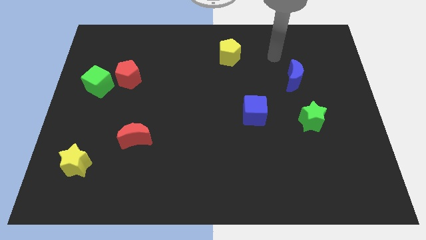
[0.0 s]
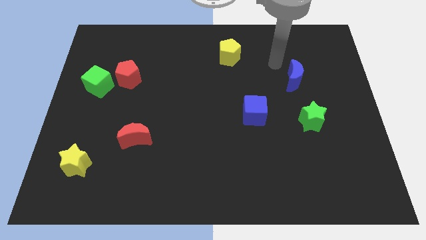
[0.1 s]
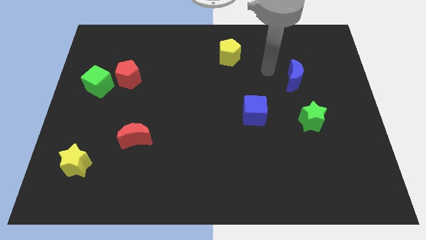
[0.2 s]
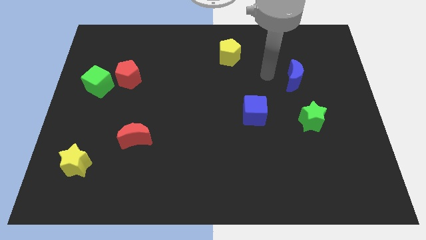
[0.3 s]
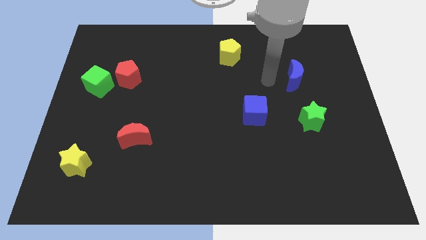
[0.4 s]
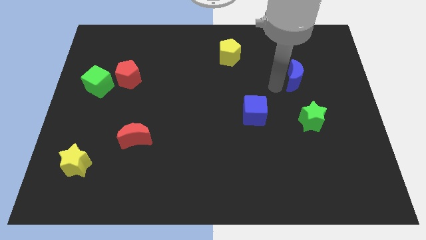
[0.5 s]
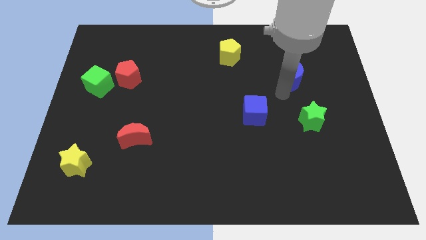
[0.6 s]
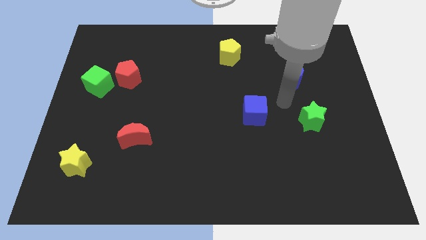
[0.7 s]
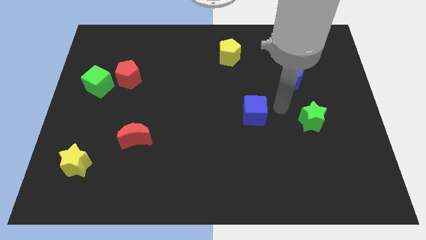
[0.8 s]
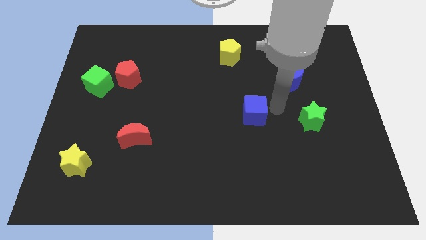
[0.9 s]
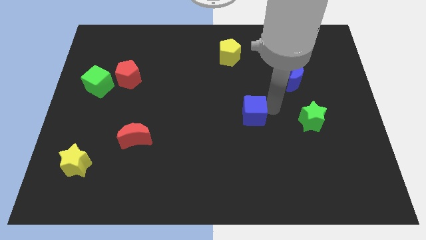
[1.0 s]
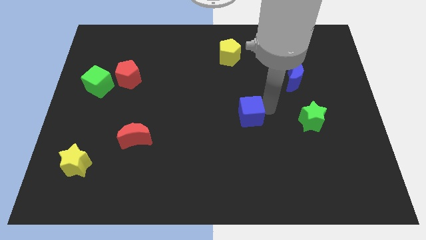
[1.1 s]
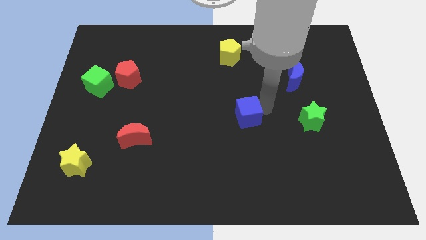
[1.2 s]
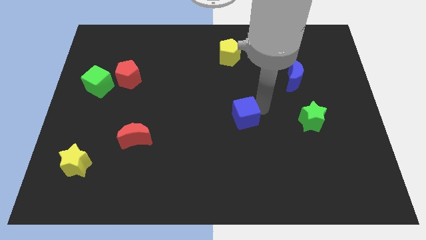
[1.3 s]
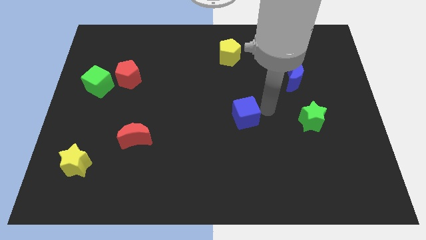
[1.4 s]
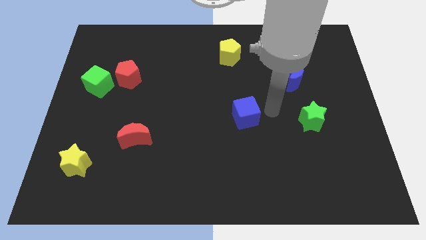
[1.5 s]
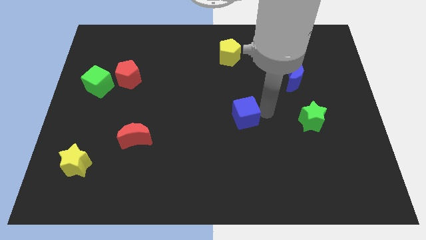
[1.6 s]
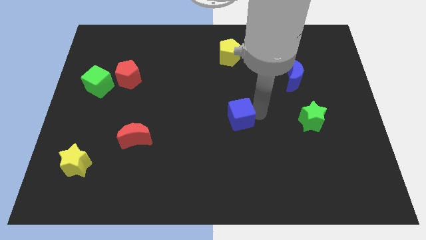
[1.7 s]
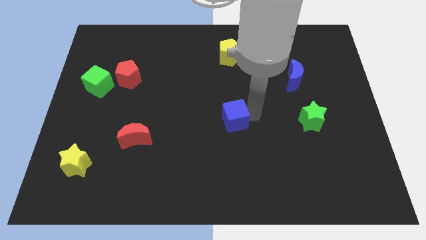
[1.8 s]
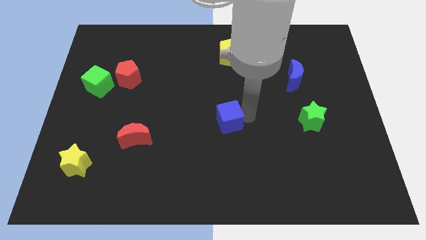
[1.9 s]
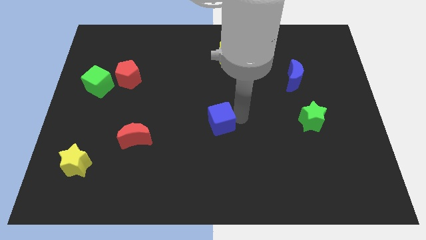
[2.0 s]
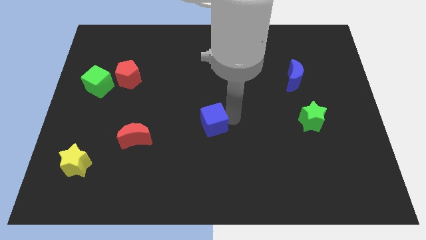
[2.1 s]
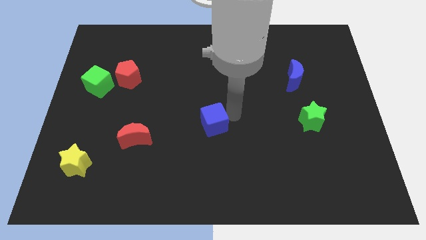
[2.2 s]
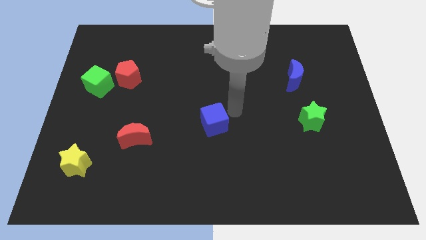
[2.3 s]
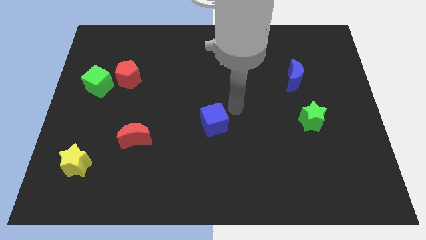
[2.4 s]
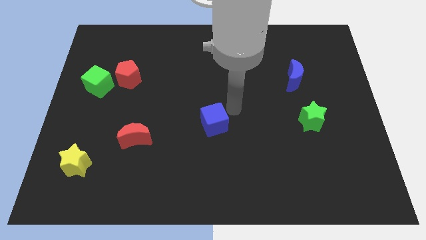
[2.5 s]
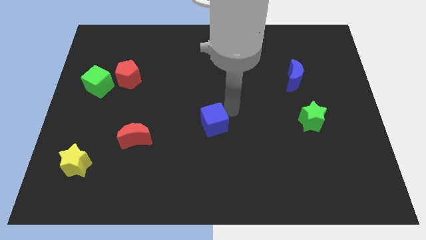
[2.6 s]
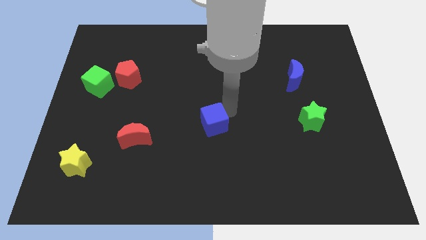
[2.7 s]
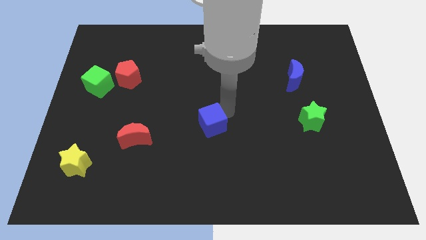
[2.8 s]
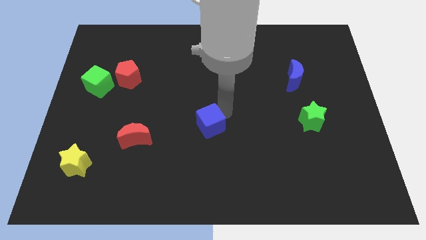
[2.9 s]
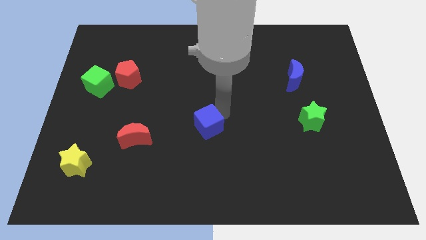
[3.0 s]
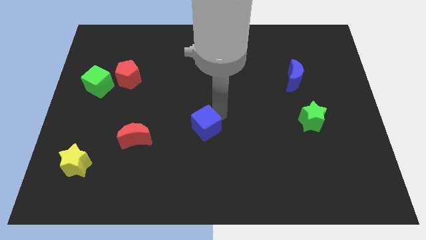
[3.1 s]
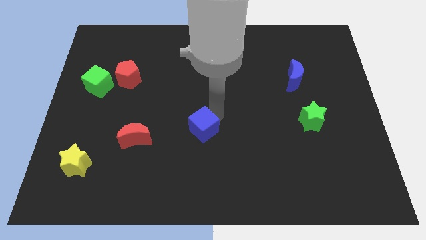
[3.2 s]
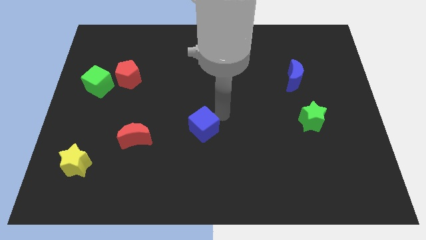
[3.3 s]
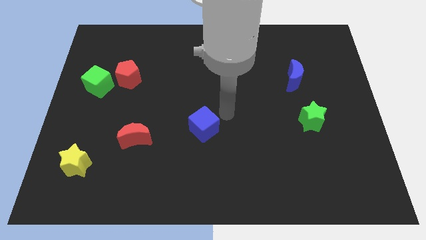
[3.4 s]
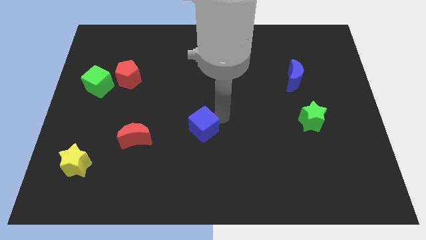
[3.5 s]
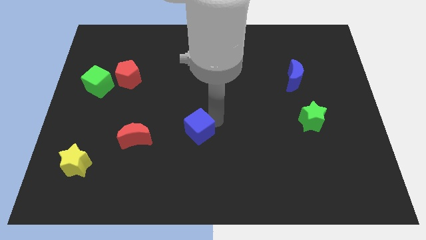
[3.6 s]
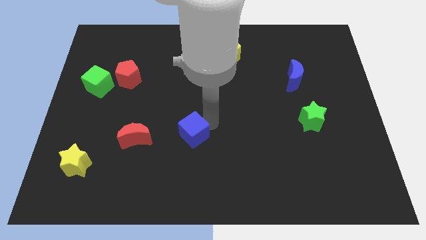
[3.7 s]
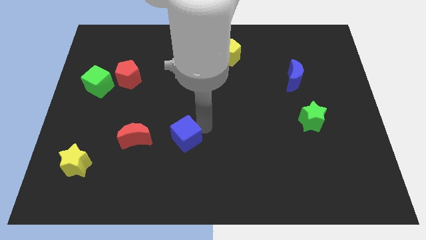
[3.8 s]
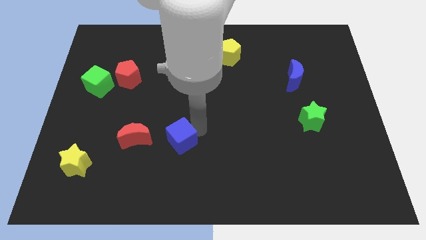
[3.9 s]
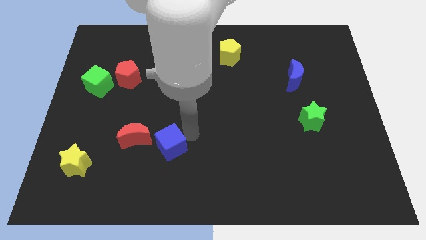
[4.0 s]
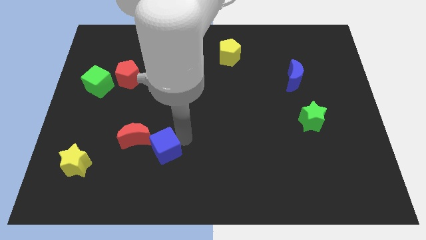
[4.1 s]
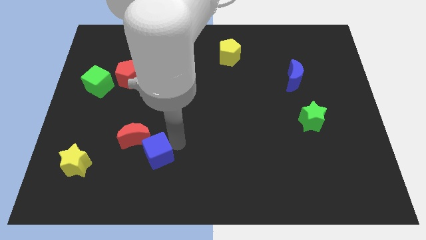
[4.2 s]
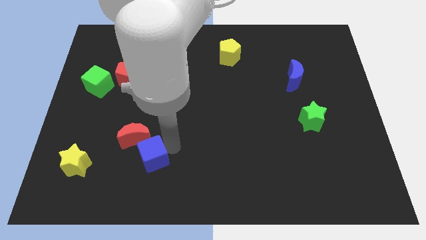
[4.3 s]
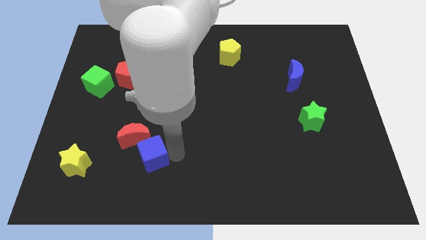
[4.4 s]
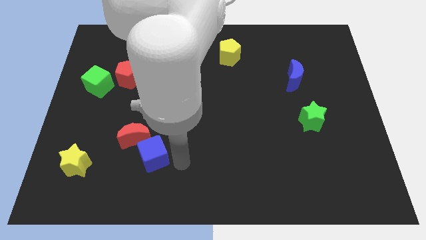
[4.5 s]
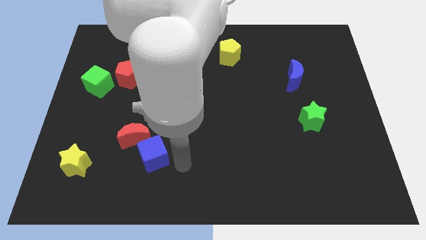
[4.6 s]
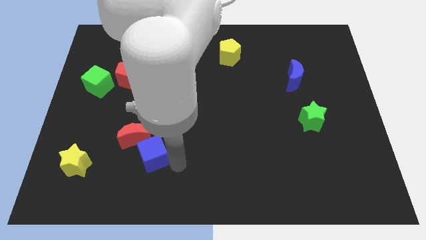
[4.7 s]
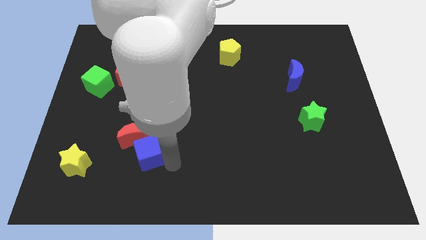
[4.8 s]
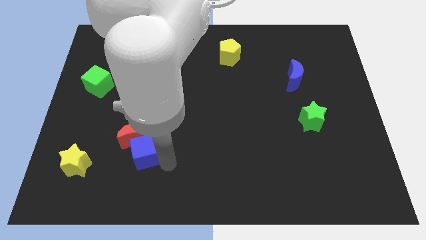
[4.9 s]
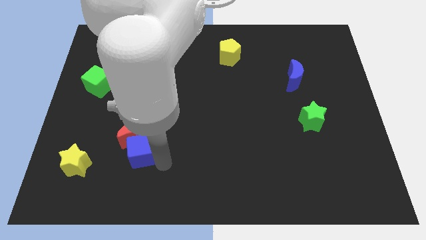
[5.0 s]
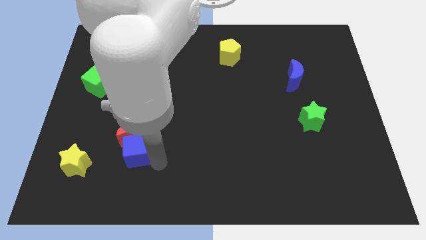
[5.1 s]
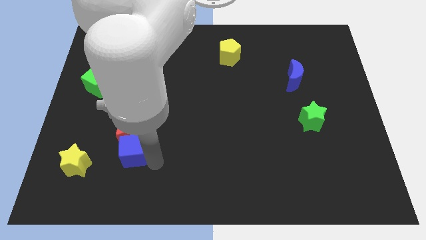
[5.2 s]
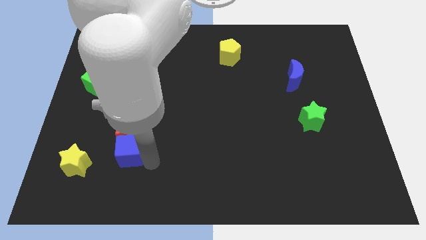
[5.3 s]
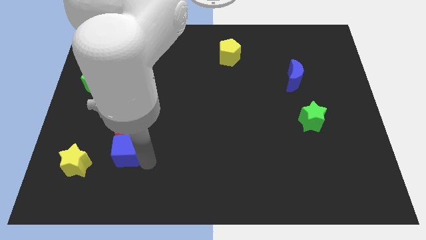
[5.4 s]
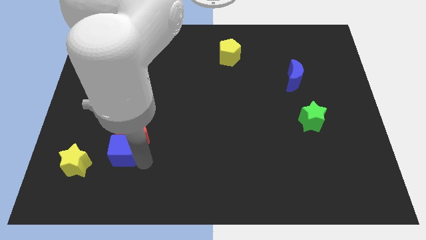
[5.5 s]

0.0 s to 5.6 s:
put the blue cube diagonally up and to the right of the yellow star

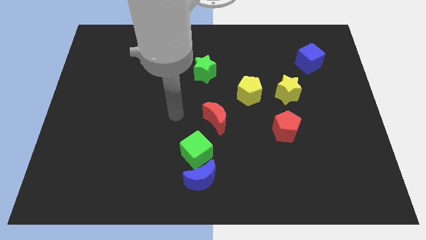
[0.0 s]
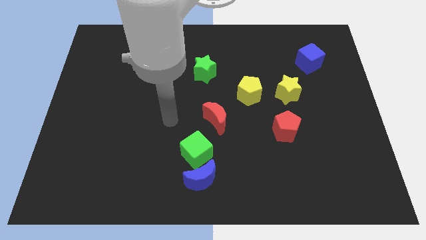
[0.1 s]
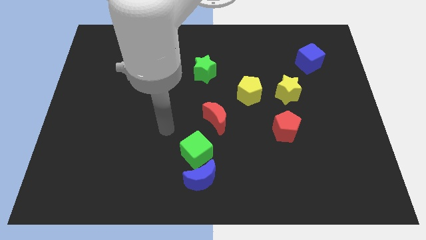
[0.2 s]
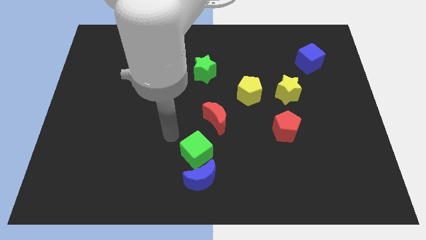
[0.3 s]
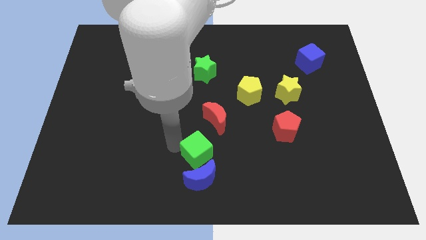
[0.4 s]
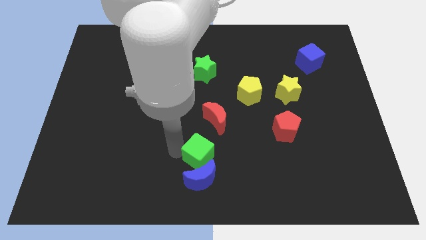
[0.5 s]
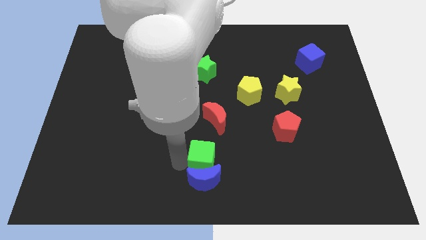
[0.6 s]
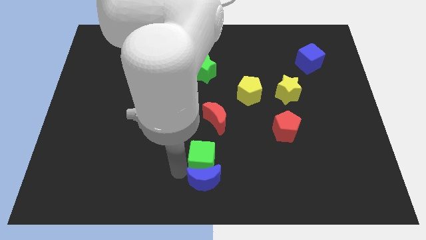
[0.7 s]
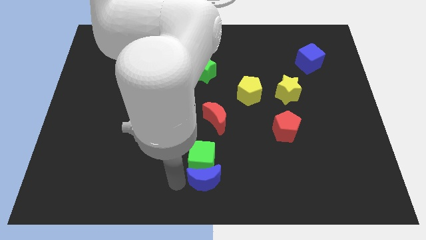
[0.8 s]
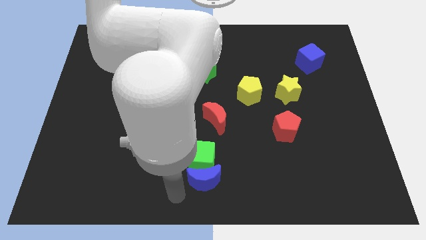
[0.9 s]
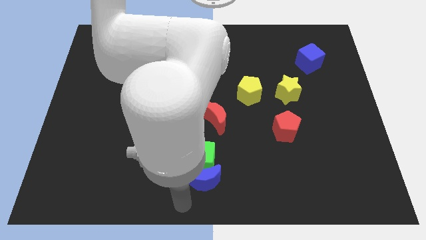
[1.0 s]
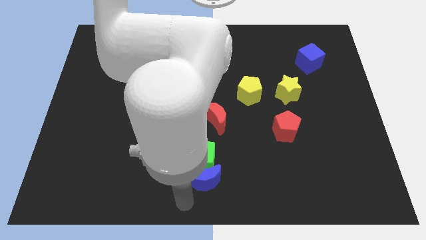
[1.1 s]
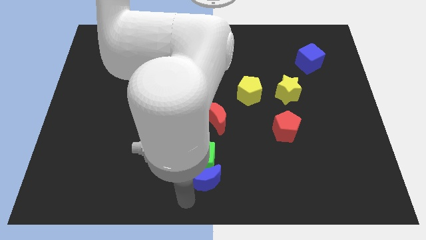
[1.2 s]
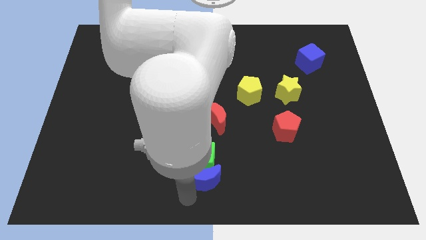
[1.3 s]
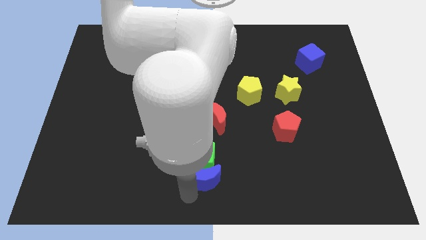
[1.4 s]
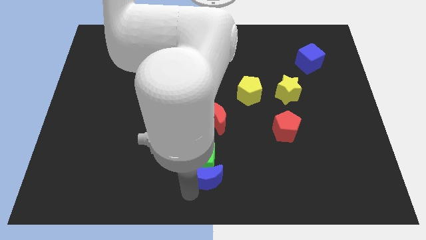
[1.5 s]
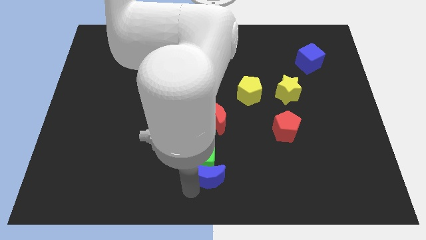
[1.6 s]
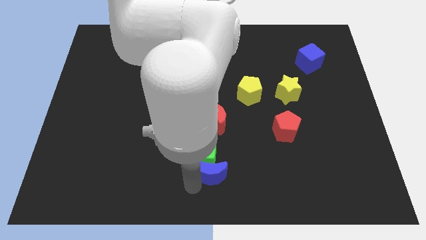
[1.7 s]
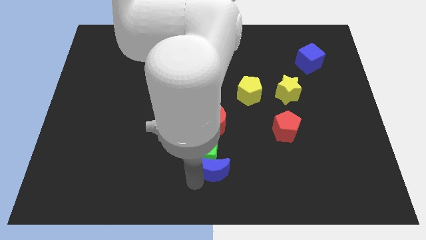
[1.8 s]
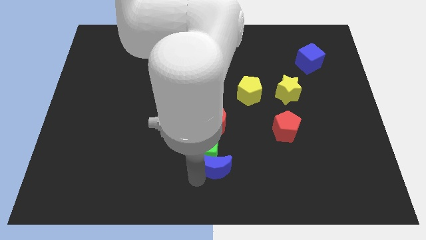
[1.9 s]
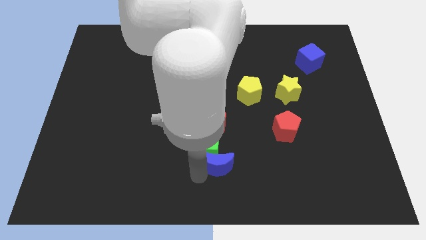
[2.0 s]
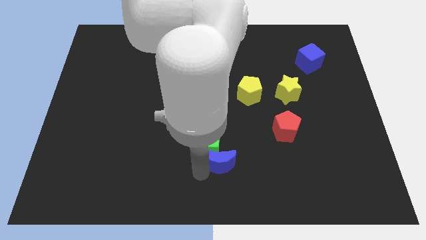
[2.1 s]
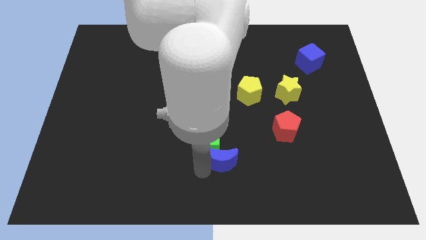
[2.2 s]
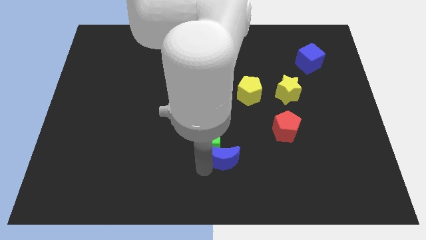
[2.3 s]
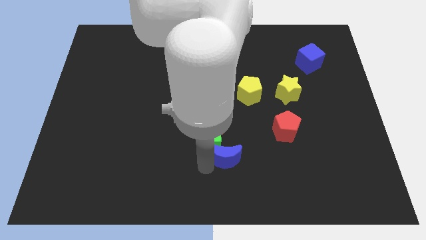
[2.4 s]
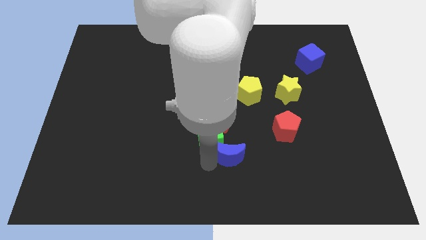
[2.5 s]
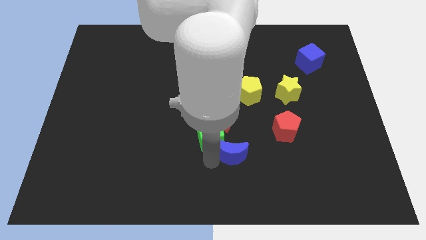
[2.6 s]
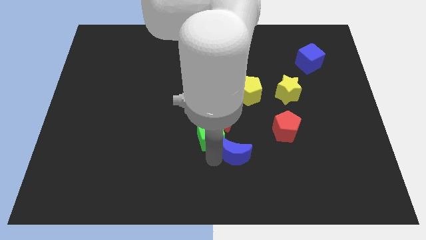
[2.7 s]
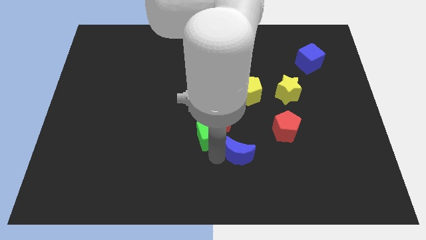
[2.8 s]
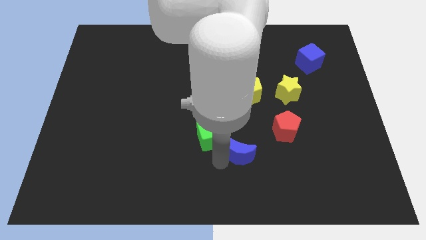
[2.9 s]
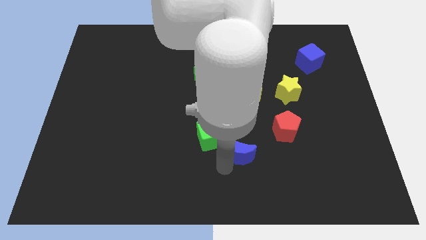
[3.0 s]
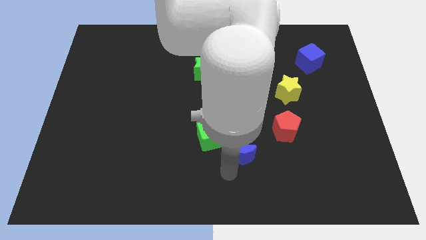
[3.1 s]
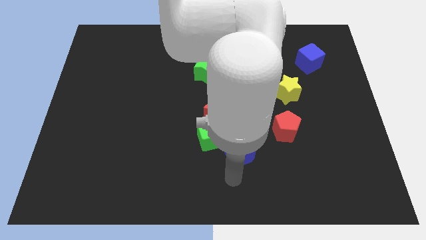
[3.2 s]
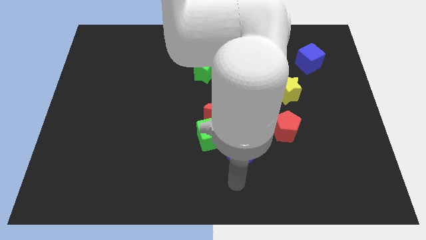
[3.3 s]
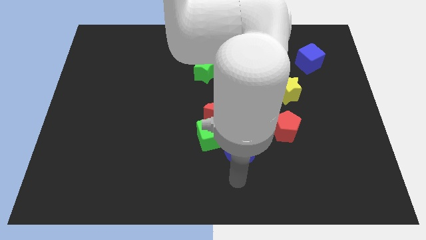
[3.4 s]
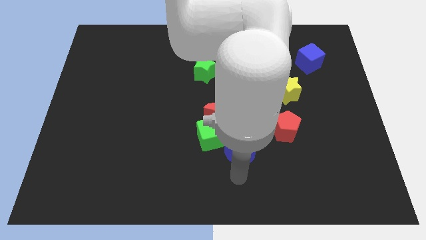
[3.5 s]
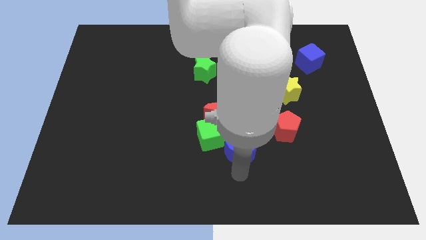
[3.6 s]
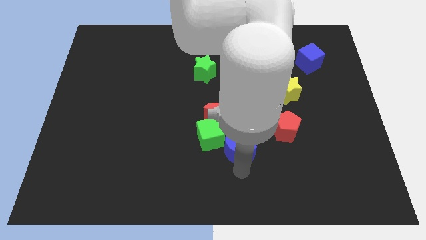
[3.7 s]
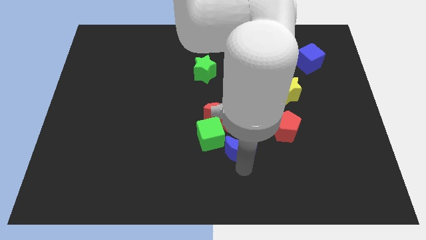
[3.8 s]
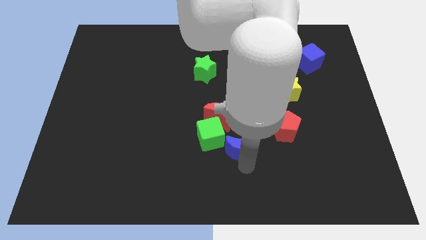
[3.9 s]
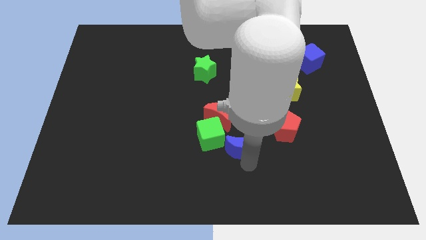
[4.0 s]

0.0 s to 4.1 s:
put the blue moon just left of the red pentagon
